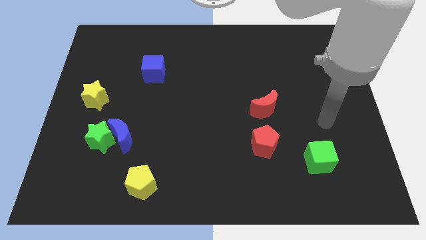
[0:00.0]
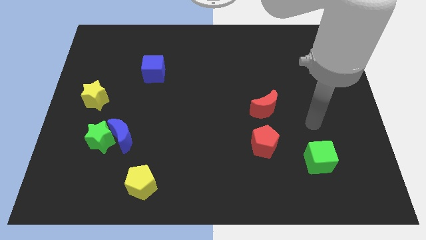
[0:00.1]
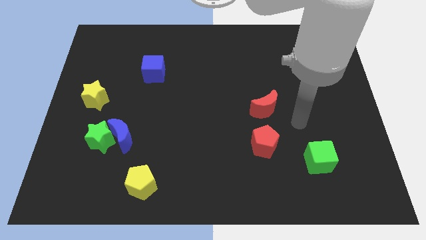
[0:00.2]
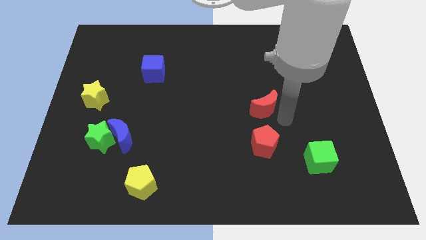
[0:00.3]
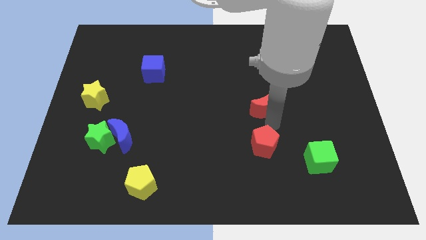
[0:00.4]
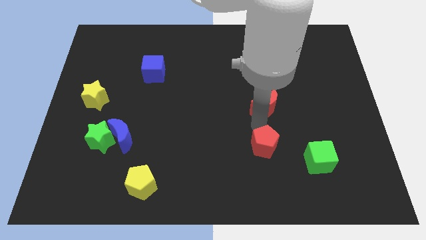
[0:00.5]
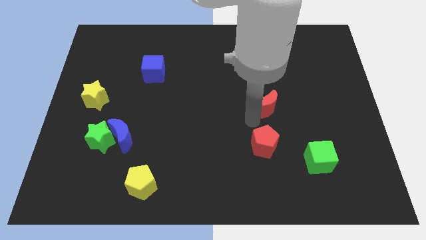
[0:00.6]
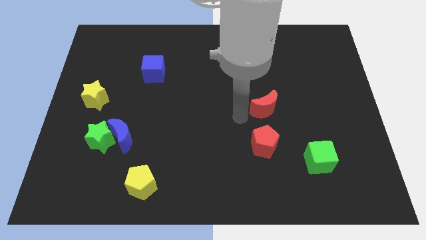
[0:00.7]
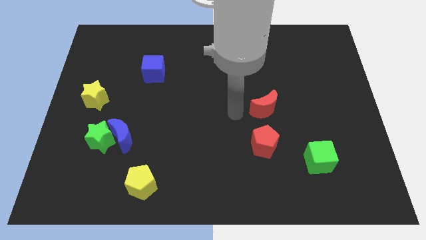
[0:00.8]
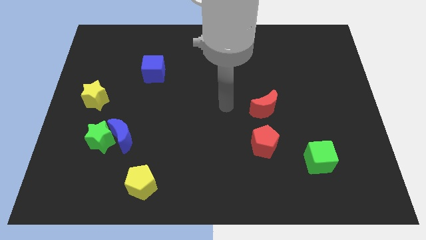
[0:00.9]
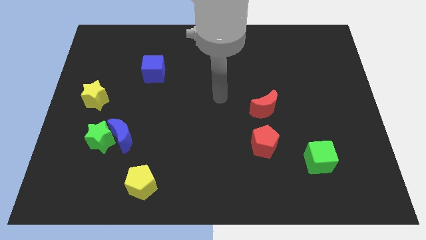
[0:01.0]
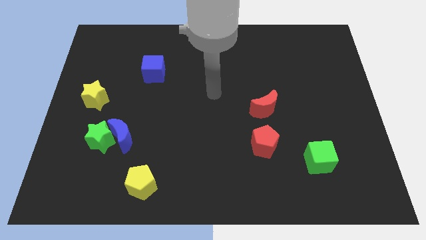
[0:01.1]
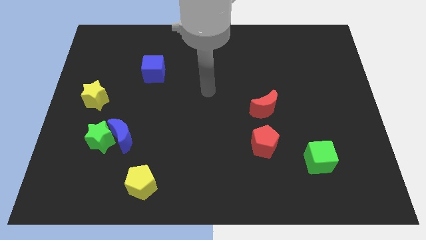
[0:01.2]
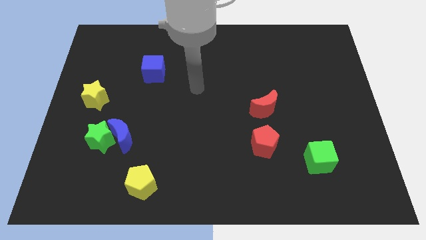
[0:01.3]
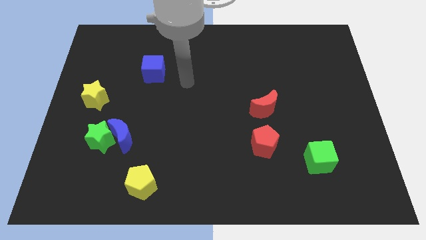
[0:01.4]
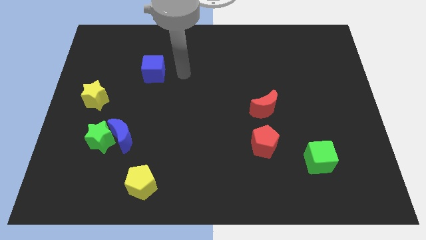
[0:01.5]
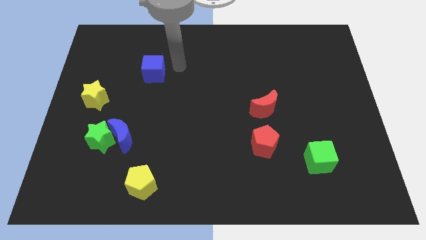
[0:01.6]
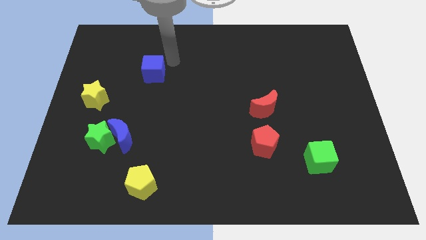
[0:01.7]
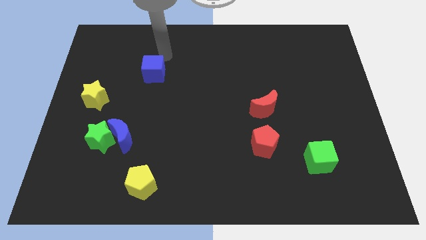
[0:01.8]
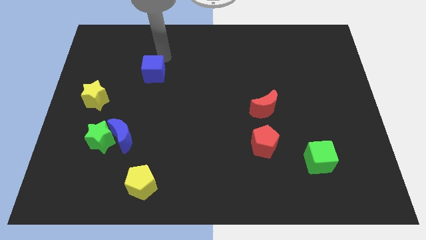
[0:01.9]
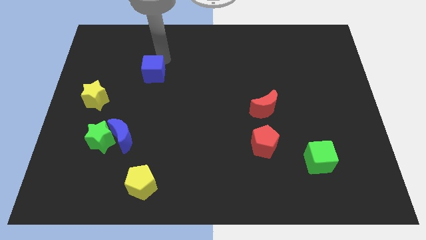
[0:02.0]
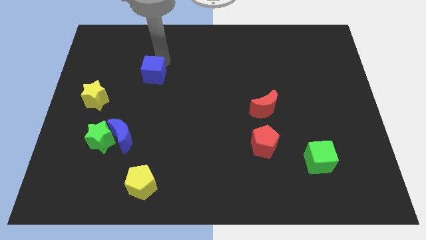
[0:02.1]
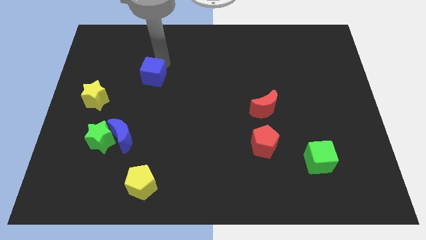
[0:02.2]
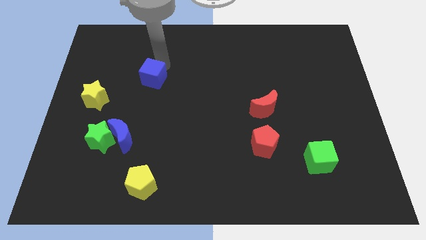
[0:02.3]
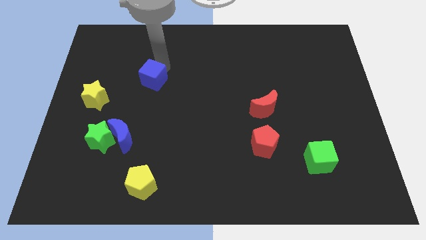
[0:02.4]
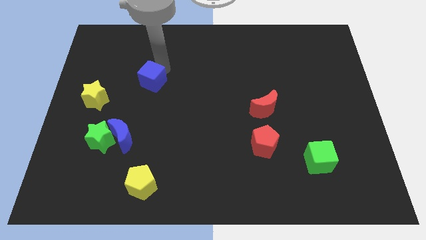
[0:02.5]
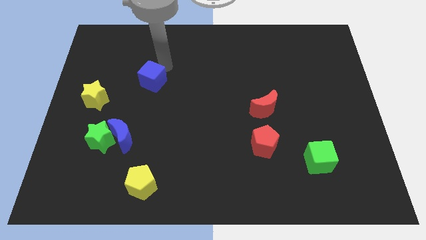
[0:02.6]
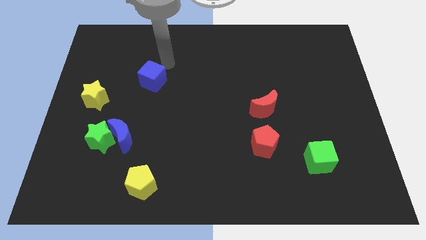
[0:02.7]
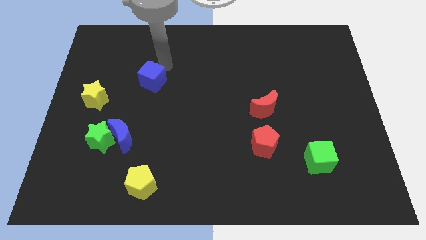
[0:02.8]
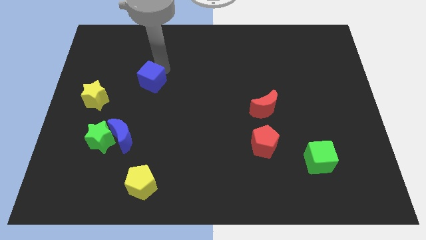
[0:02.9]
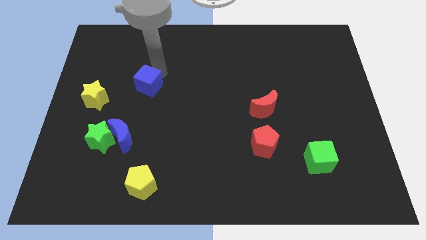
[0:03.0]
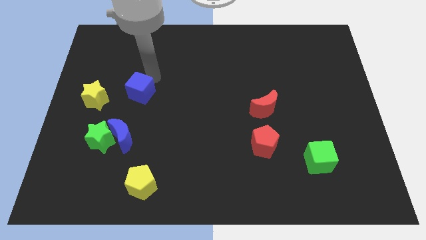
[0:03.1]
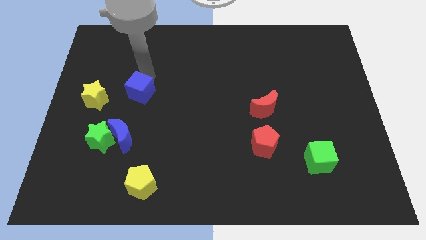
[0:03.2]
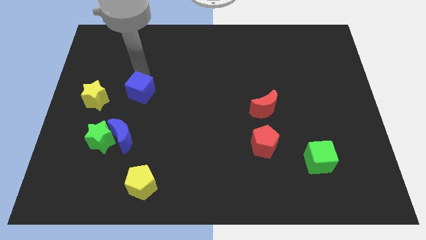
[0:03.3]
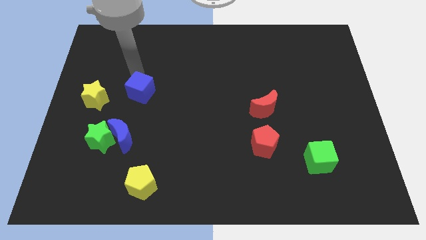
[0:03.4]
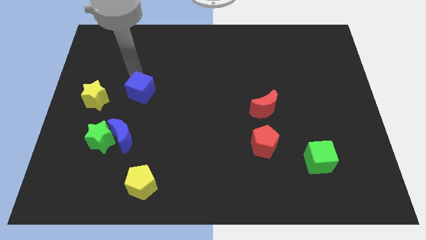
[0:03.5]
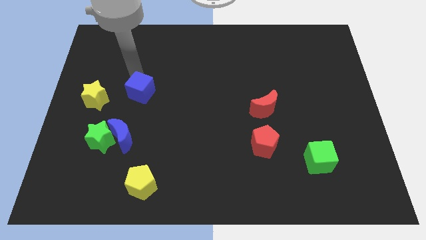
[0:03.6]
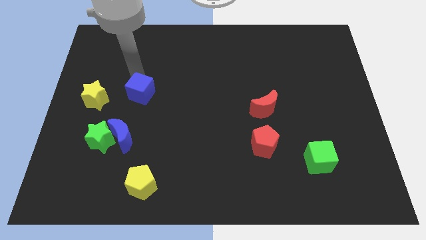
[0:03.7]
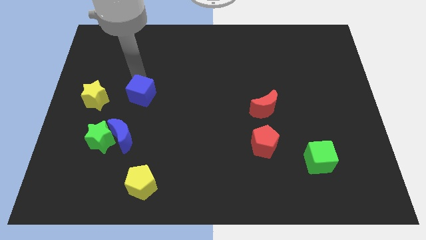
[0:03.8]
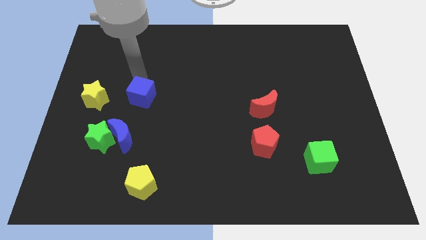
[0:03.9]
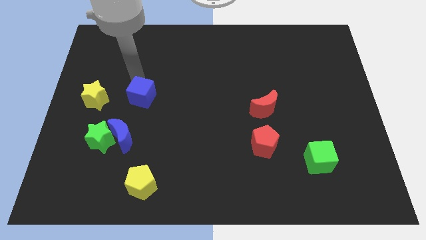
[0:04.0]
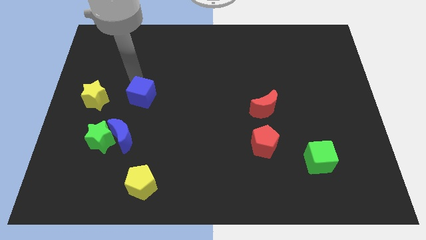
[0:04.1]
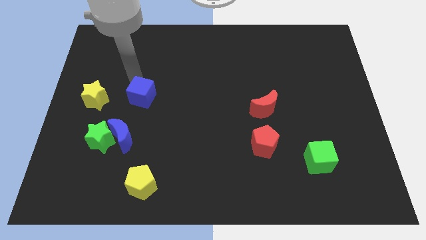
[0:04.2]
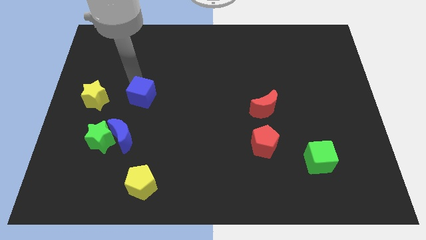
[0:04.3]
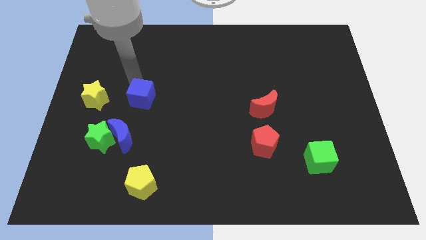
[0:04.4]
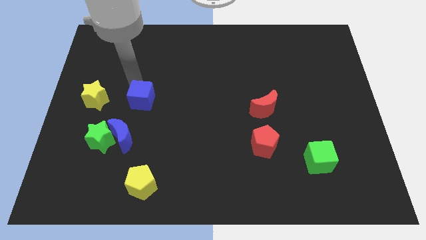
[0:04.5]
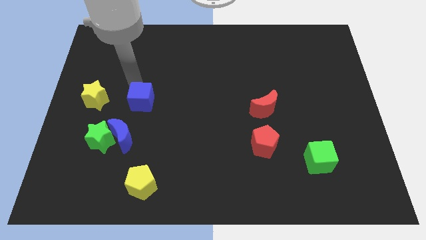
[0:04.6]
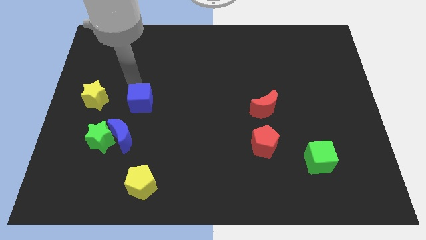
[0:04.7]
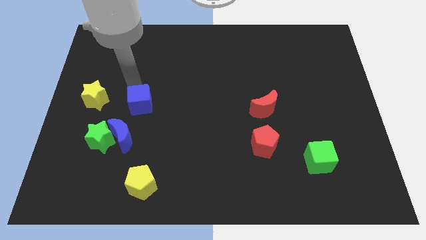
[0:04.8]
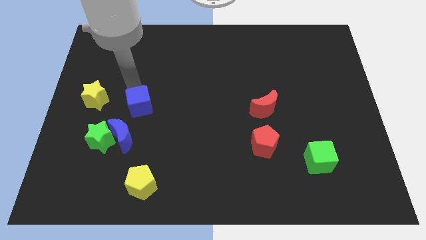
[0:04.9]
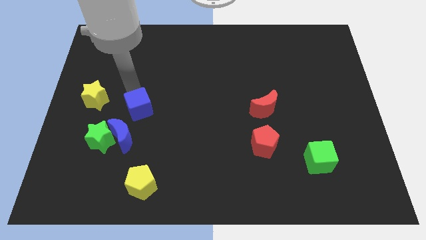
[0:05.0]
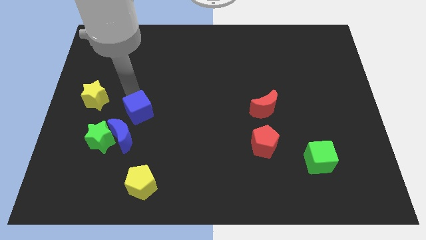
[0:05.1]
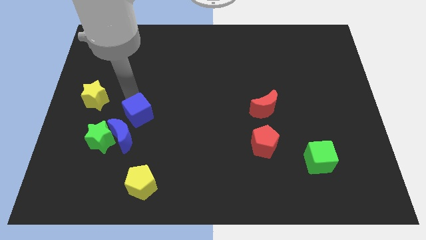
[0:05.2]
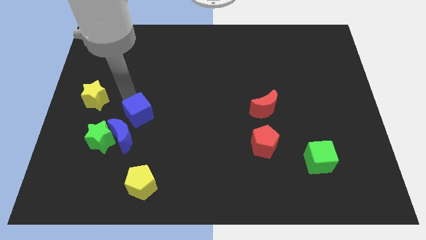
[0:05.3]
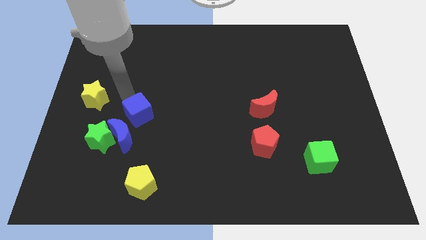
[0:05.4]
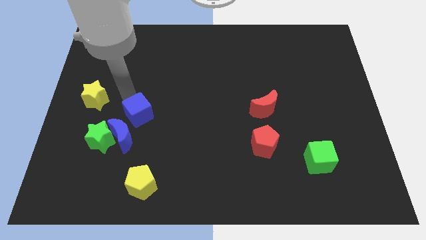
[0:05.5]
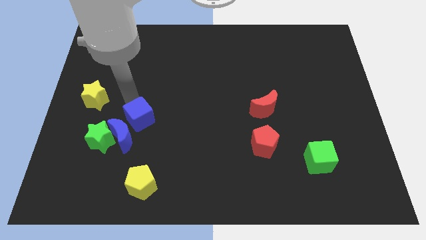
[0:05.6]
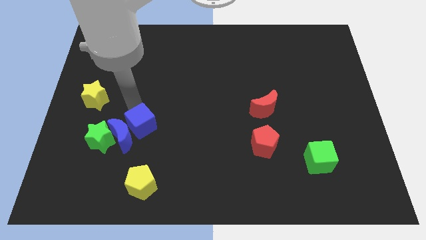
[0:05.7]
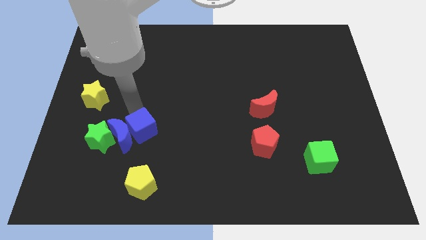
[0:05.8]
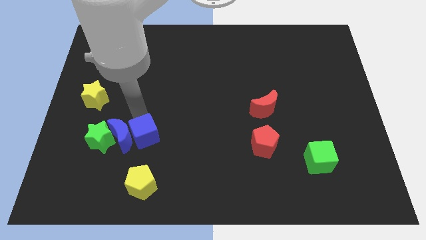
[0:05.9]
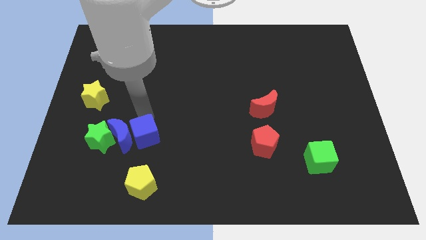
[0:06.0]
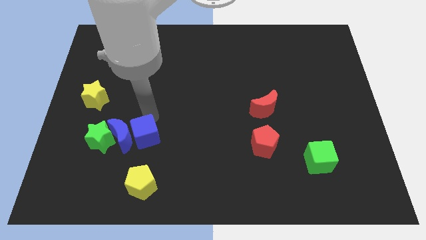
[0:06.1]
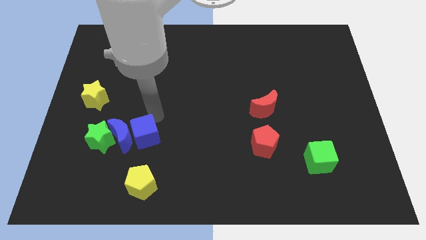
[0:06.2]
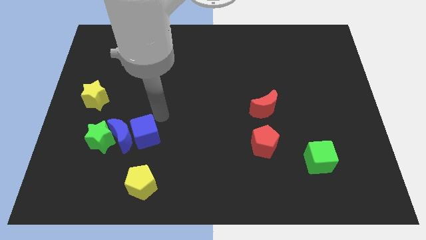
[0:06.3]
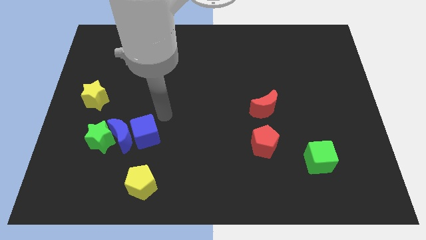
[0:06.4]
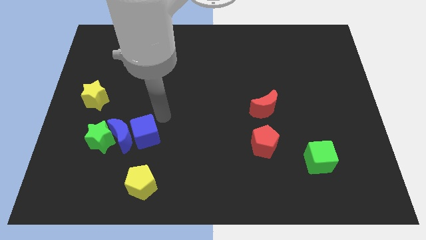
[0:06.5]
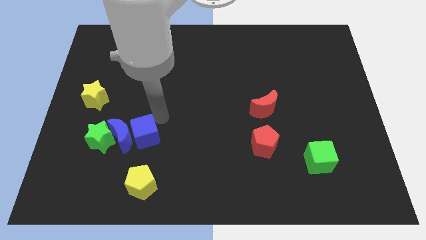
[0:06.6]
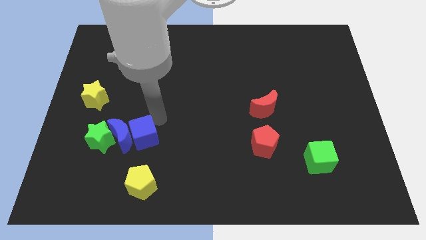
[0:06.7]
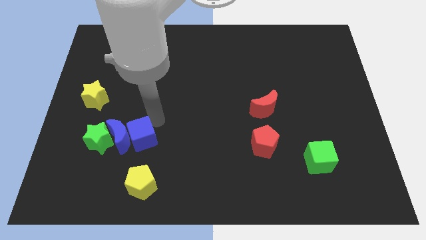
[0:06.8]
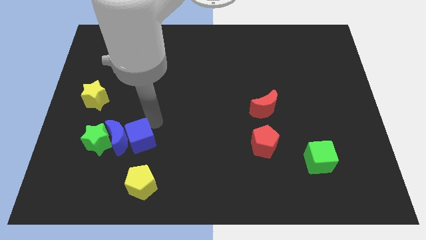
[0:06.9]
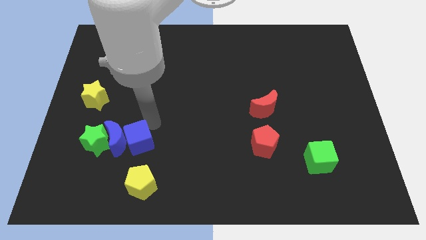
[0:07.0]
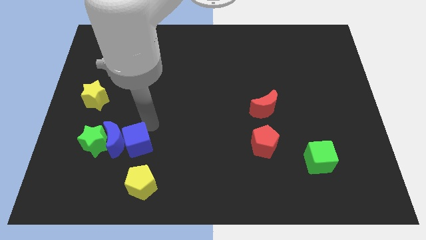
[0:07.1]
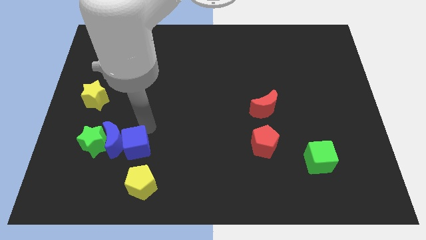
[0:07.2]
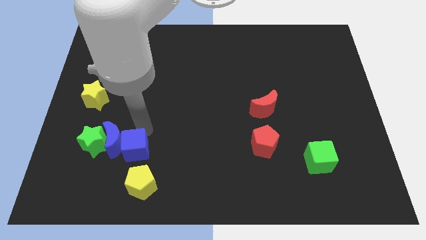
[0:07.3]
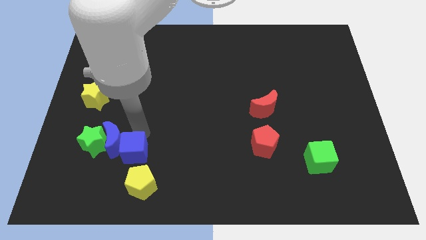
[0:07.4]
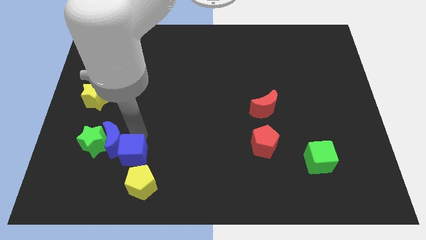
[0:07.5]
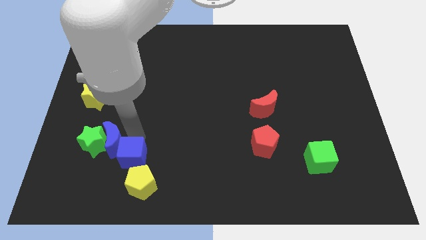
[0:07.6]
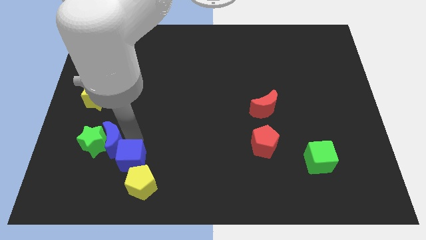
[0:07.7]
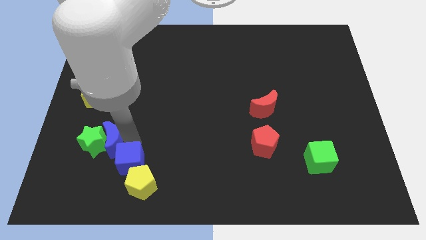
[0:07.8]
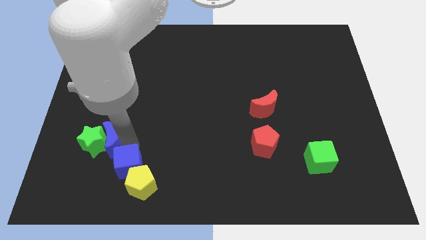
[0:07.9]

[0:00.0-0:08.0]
put the blue cube just left of the yellow pentagon

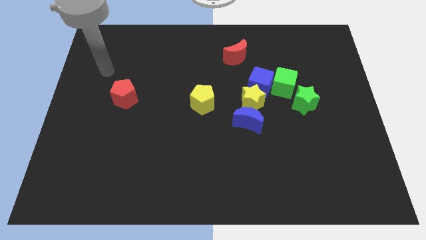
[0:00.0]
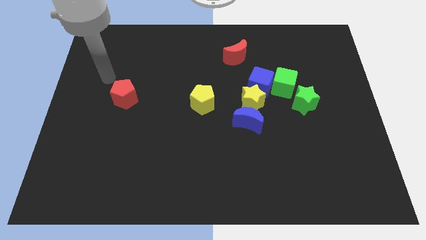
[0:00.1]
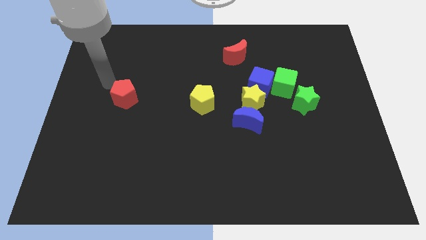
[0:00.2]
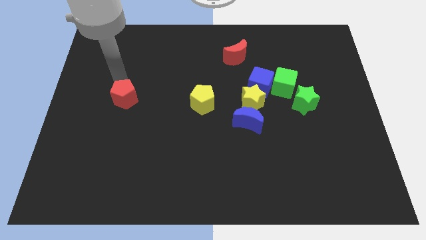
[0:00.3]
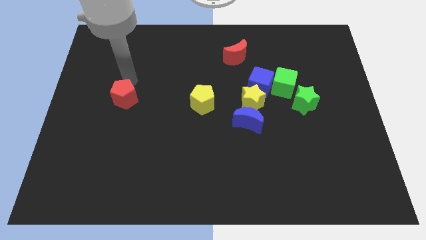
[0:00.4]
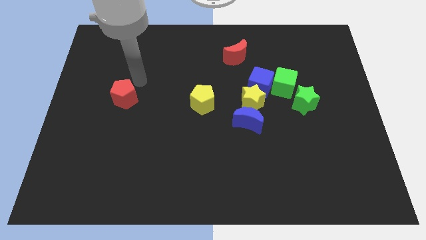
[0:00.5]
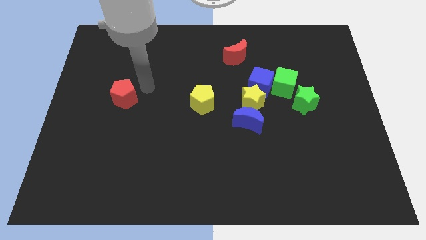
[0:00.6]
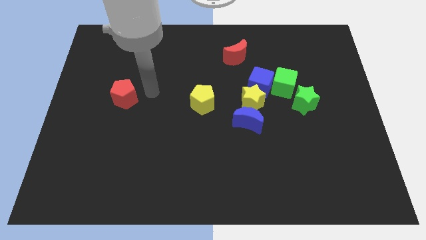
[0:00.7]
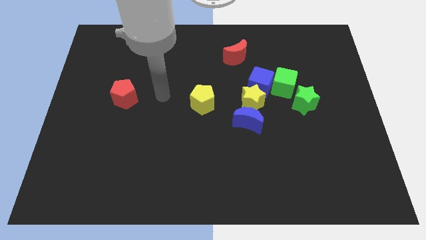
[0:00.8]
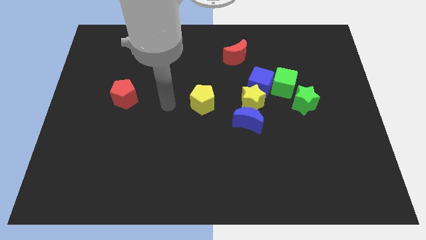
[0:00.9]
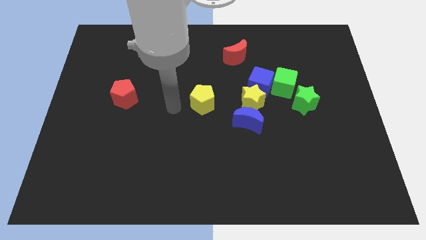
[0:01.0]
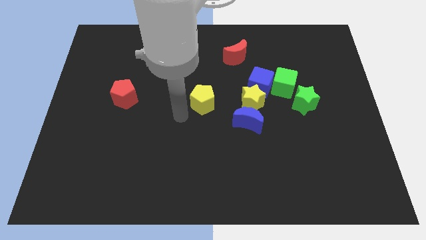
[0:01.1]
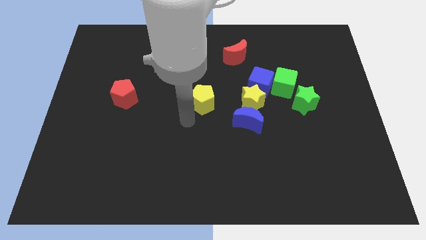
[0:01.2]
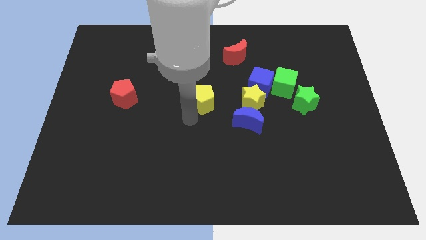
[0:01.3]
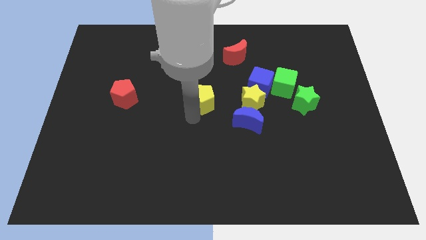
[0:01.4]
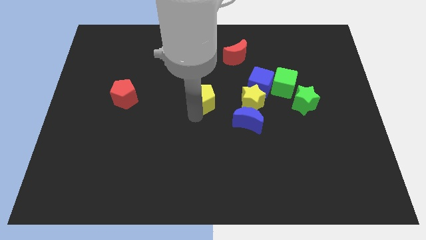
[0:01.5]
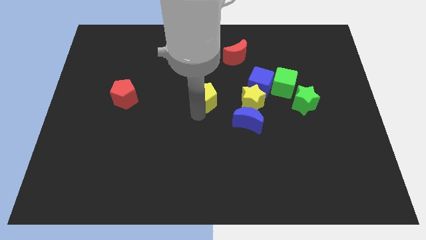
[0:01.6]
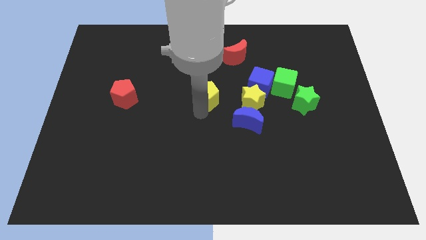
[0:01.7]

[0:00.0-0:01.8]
push the yellow pentagon to the left side of the blue cube
